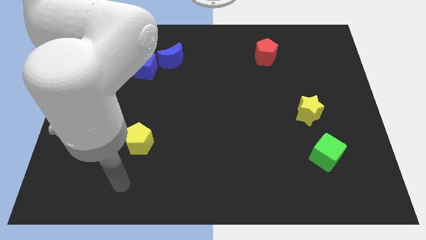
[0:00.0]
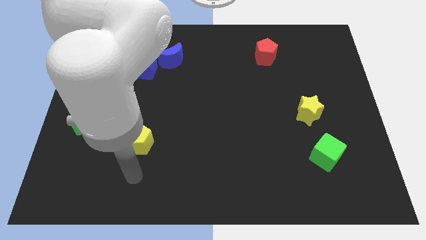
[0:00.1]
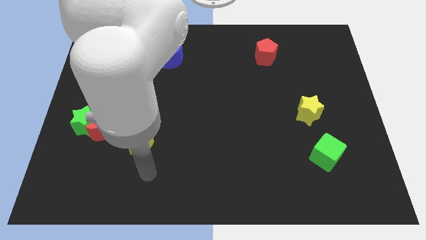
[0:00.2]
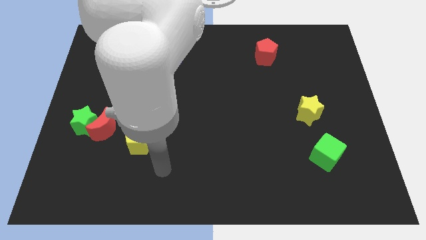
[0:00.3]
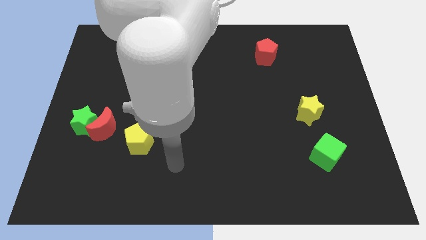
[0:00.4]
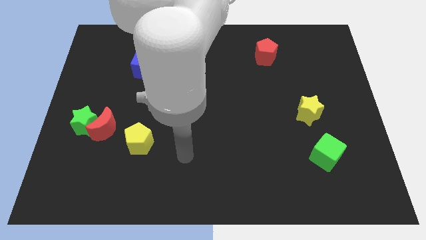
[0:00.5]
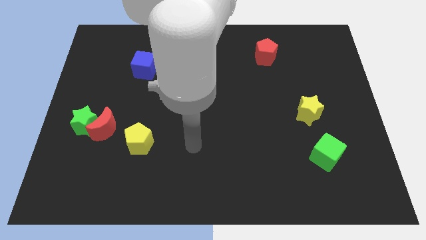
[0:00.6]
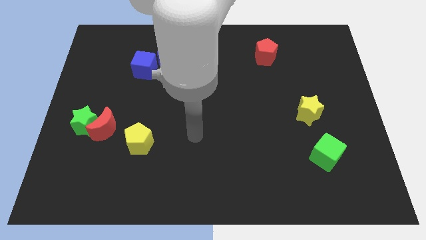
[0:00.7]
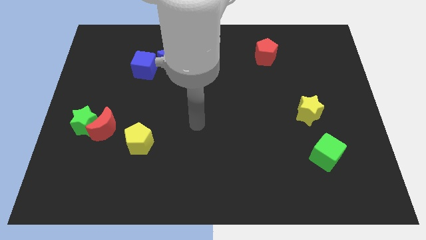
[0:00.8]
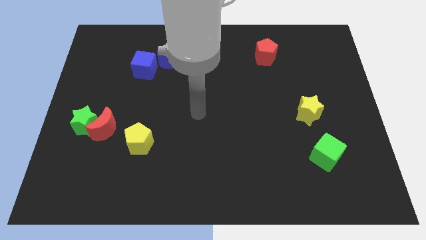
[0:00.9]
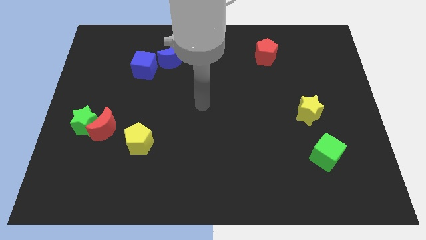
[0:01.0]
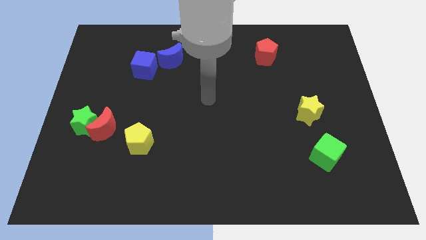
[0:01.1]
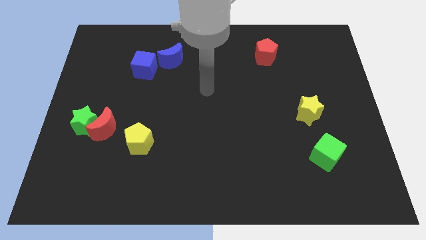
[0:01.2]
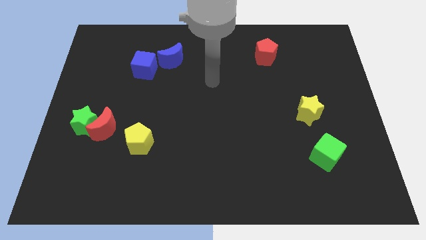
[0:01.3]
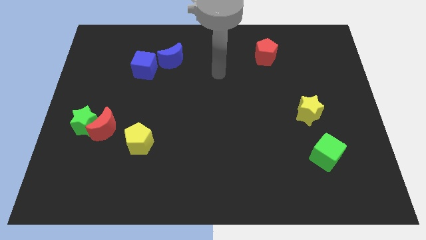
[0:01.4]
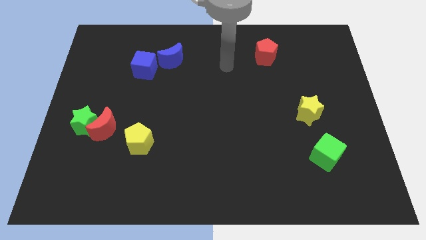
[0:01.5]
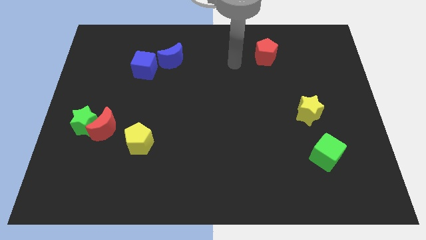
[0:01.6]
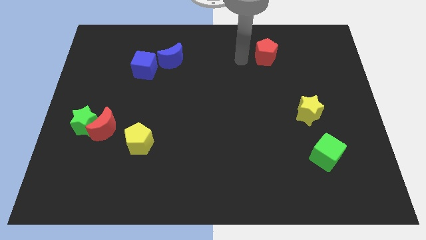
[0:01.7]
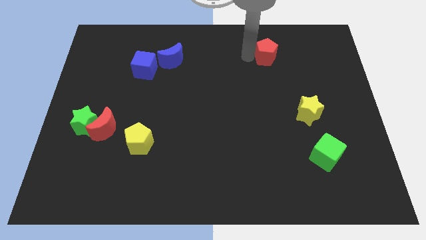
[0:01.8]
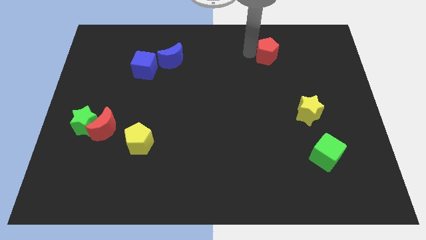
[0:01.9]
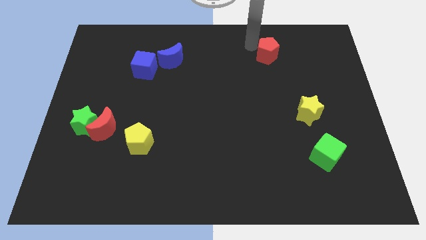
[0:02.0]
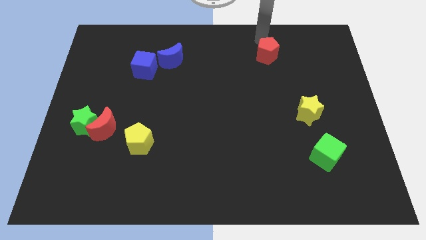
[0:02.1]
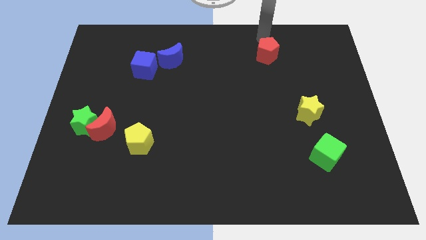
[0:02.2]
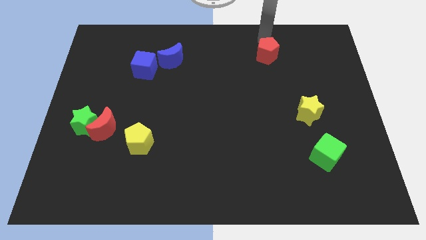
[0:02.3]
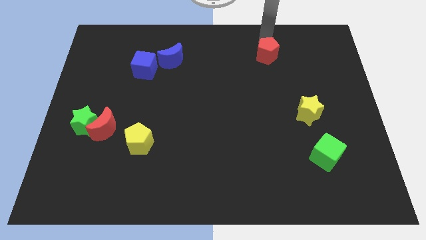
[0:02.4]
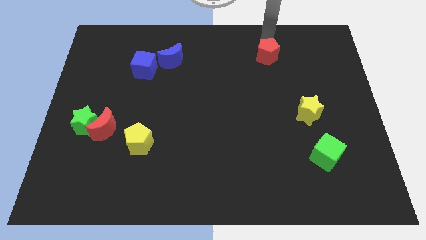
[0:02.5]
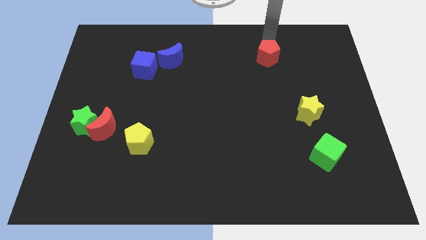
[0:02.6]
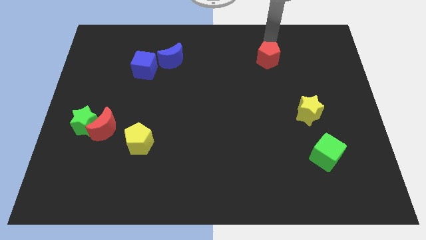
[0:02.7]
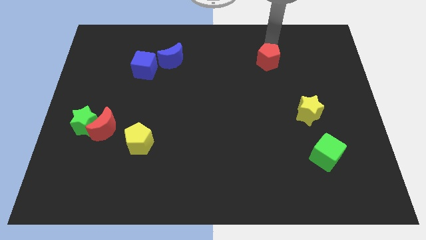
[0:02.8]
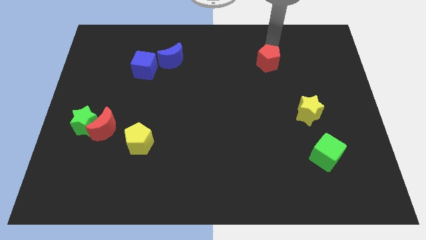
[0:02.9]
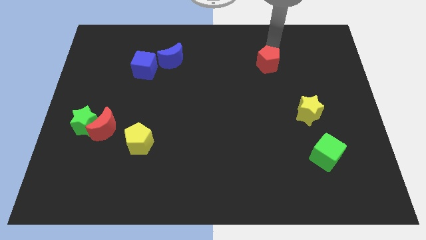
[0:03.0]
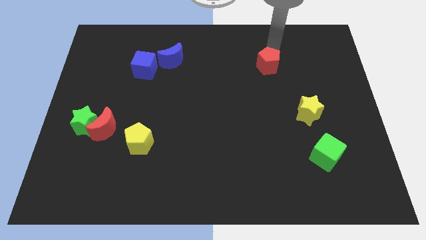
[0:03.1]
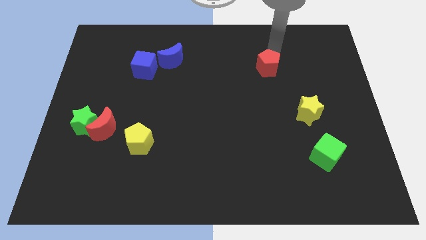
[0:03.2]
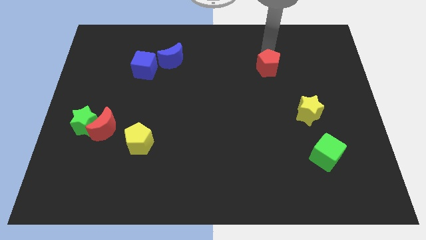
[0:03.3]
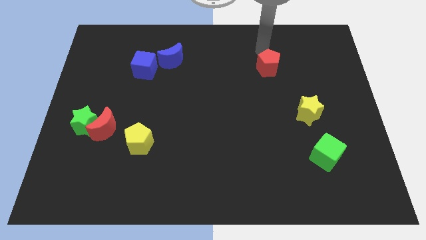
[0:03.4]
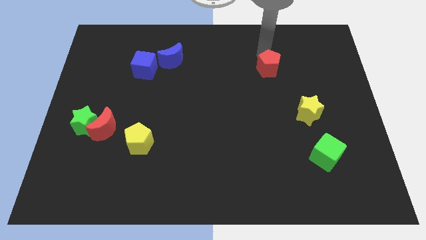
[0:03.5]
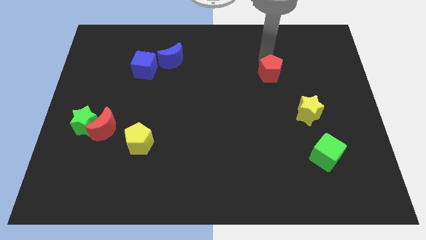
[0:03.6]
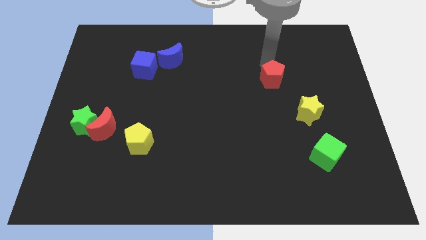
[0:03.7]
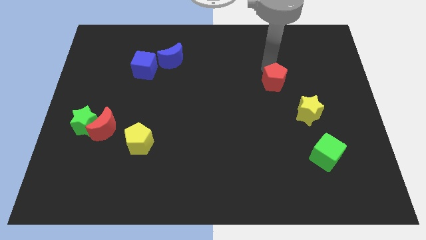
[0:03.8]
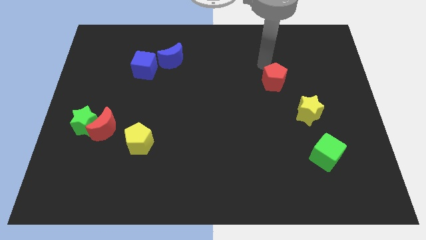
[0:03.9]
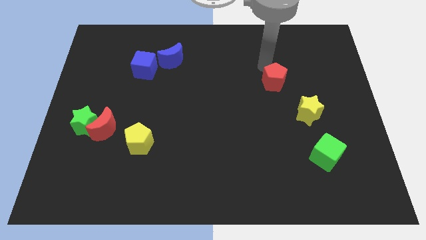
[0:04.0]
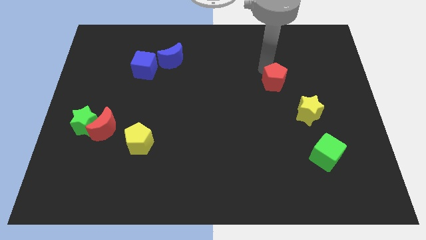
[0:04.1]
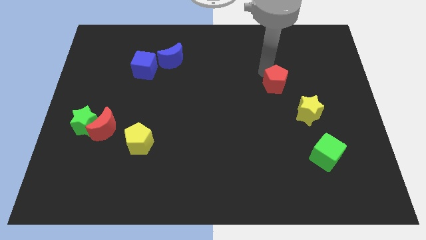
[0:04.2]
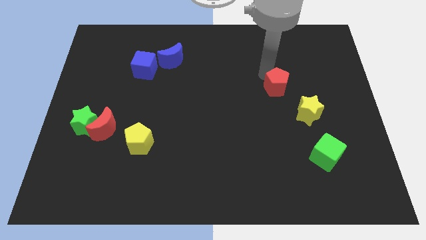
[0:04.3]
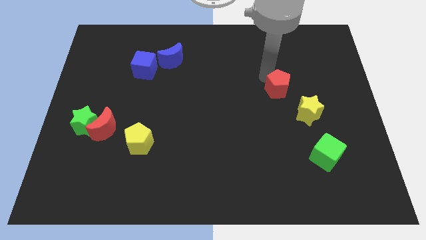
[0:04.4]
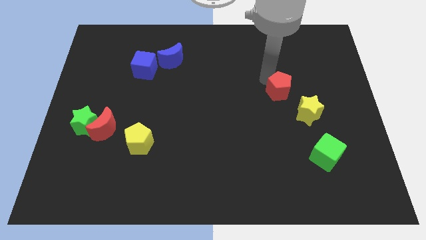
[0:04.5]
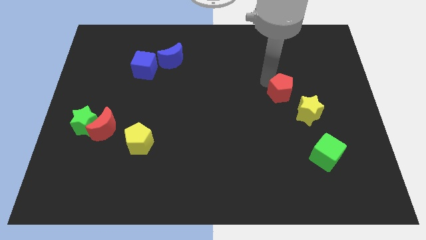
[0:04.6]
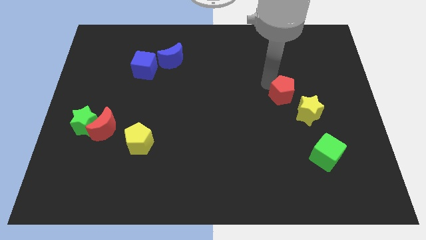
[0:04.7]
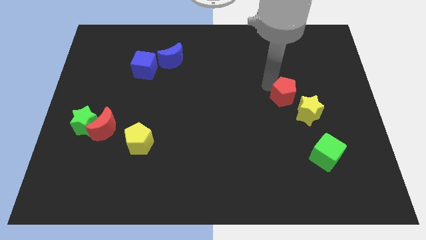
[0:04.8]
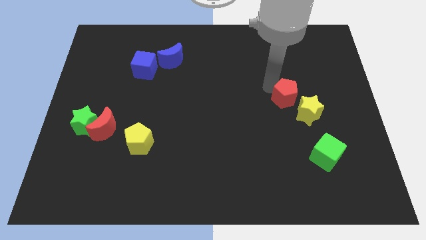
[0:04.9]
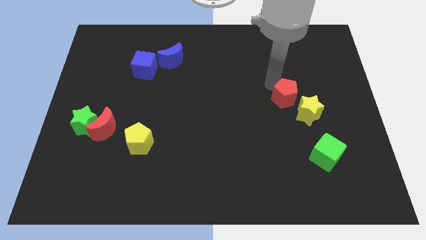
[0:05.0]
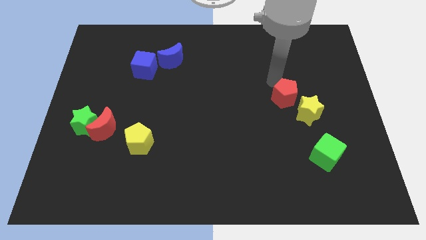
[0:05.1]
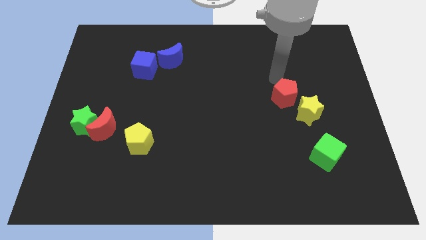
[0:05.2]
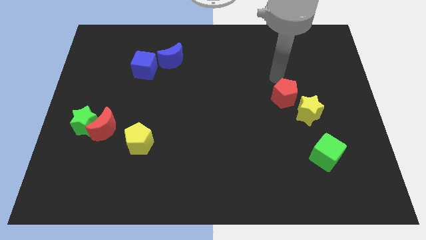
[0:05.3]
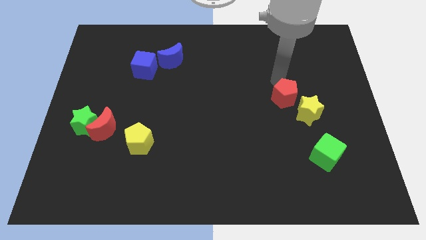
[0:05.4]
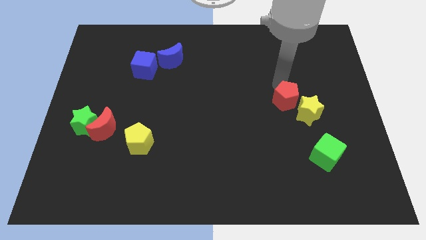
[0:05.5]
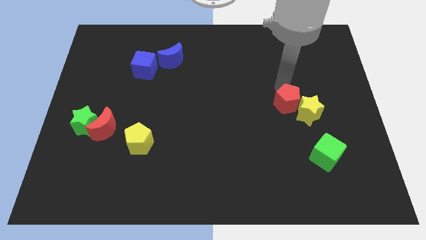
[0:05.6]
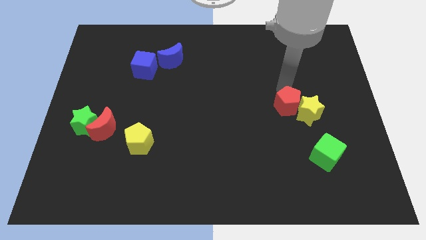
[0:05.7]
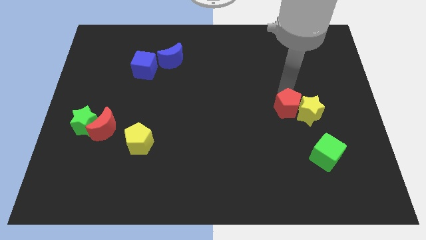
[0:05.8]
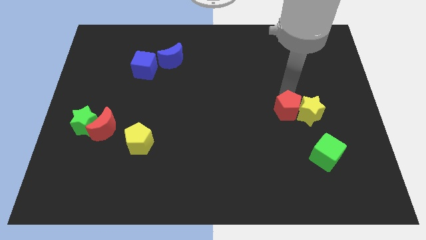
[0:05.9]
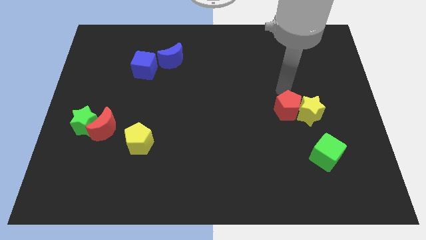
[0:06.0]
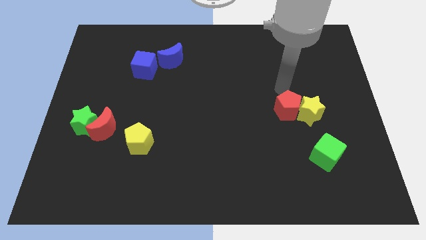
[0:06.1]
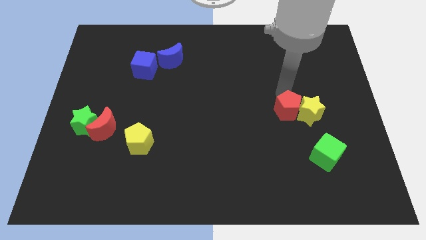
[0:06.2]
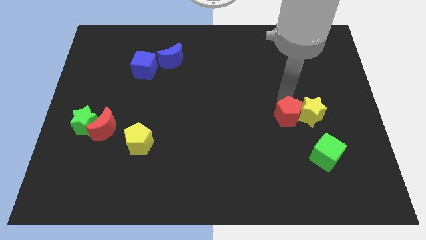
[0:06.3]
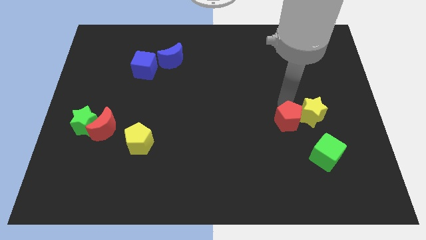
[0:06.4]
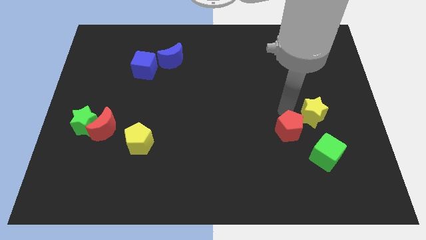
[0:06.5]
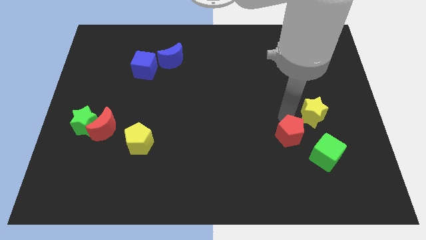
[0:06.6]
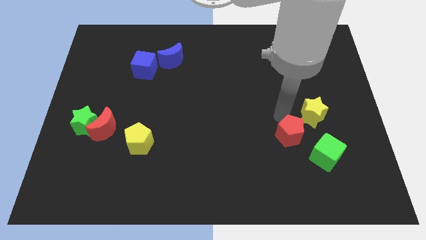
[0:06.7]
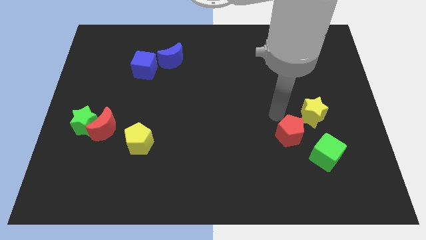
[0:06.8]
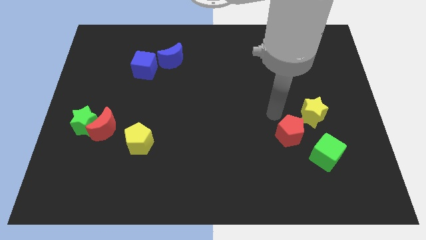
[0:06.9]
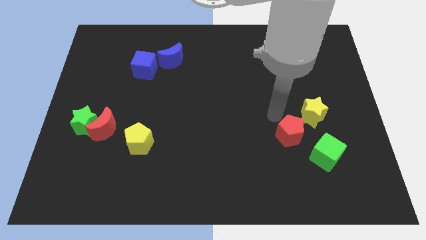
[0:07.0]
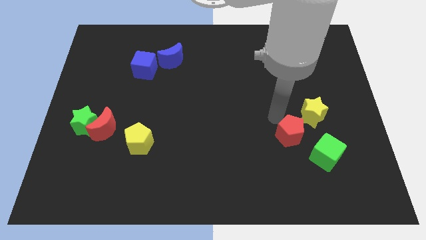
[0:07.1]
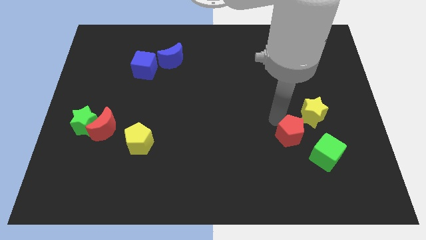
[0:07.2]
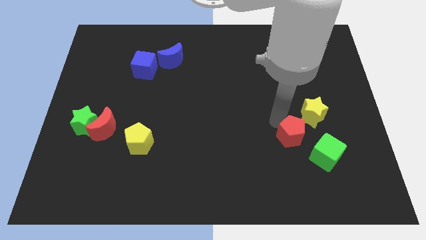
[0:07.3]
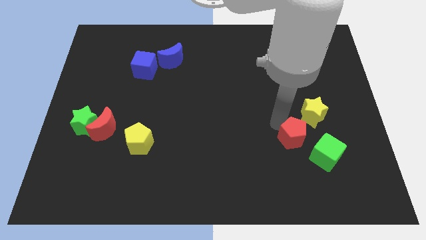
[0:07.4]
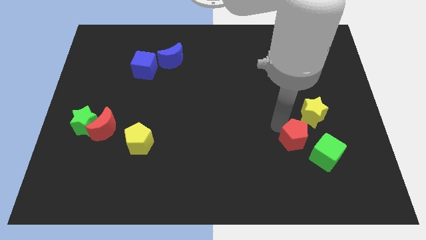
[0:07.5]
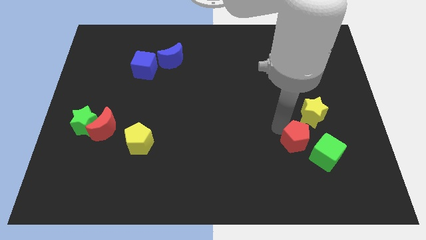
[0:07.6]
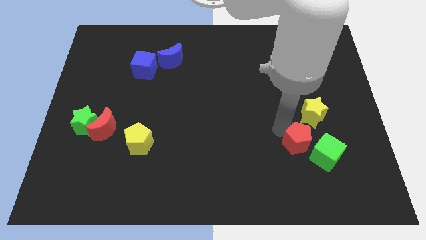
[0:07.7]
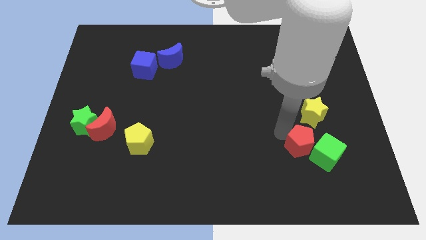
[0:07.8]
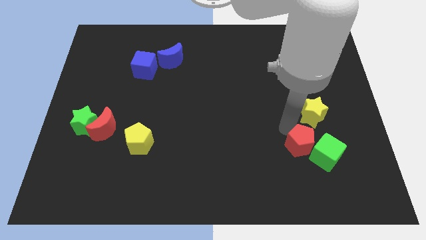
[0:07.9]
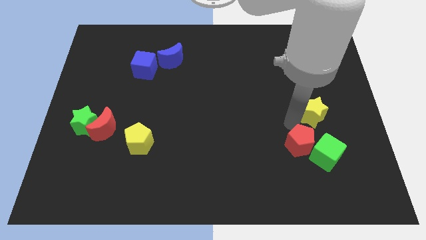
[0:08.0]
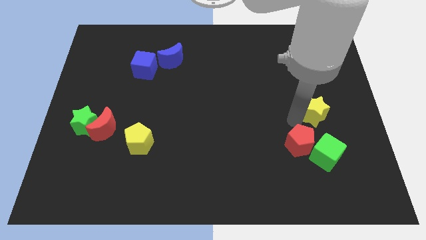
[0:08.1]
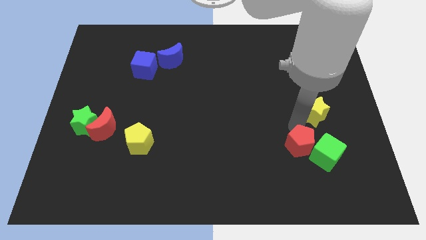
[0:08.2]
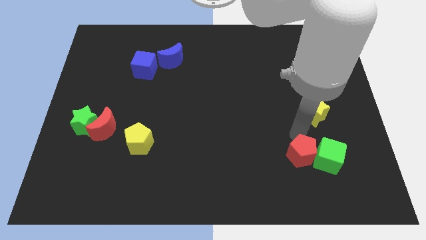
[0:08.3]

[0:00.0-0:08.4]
move the red pentagon to the bottom left side of the green cube

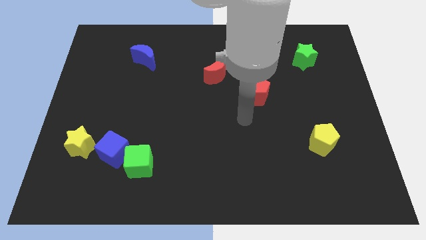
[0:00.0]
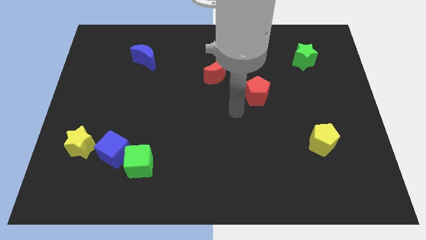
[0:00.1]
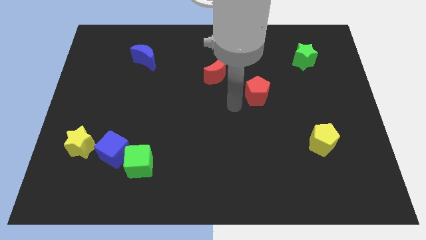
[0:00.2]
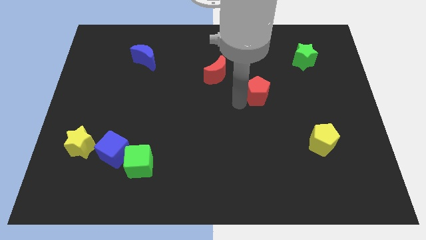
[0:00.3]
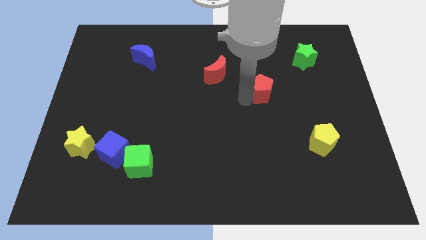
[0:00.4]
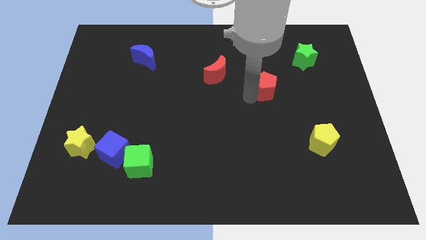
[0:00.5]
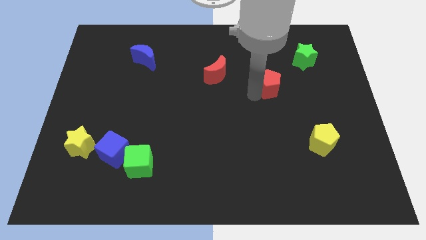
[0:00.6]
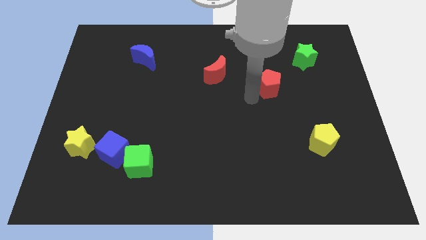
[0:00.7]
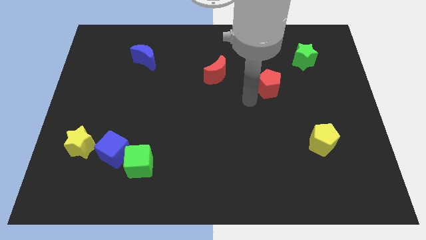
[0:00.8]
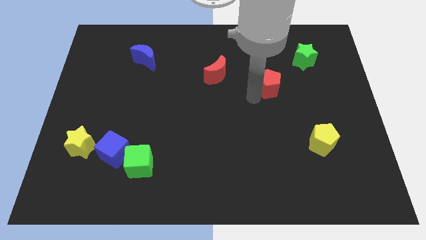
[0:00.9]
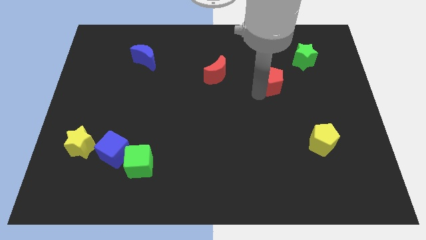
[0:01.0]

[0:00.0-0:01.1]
push the red pentagon to the bottom left of the green star
